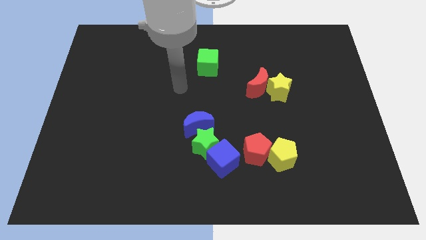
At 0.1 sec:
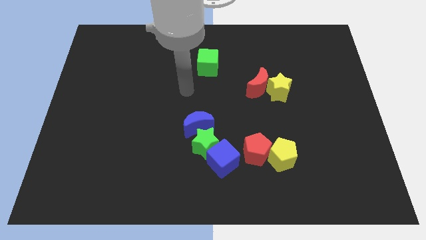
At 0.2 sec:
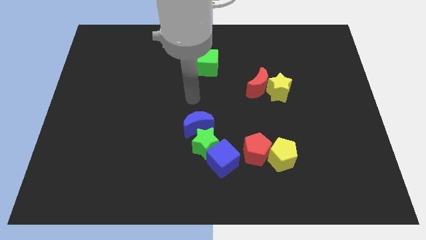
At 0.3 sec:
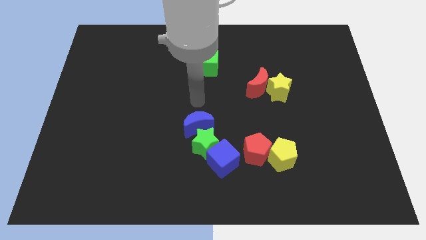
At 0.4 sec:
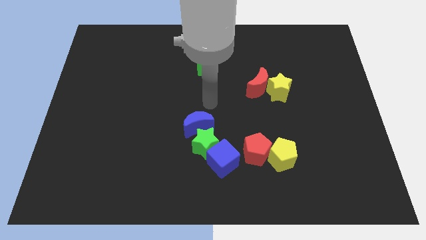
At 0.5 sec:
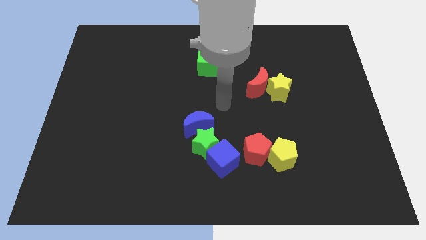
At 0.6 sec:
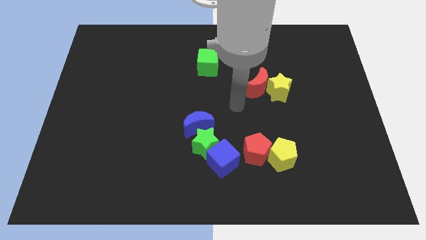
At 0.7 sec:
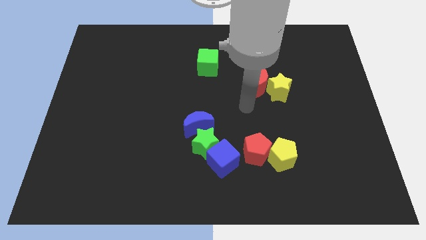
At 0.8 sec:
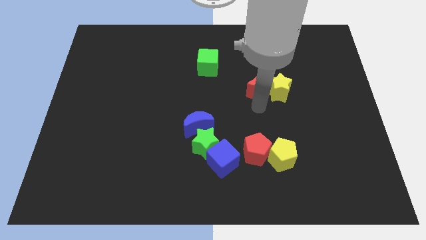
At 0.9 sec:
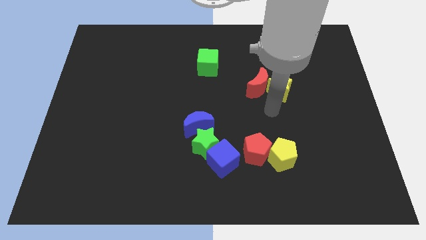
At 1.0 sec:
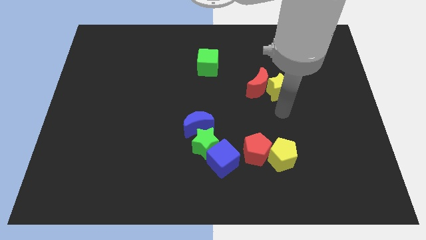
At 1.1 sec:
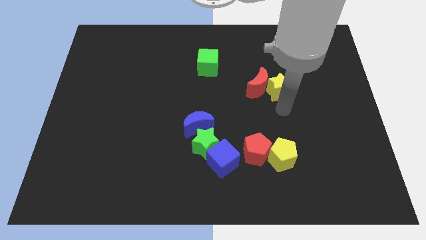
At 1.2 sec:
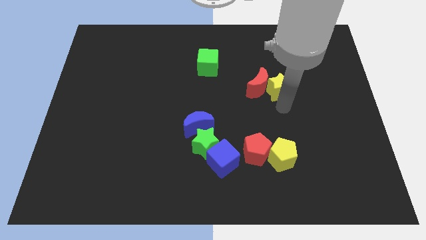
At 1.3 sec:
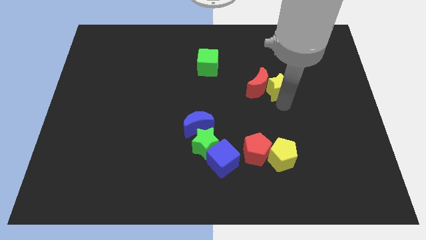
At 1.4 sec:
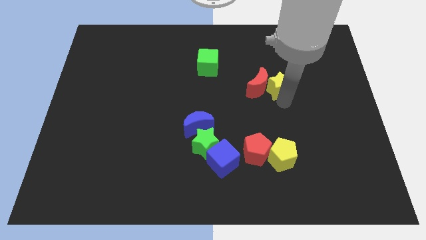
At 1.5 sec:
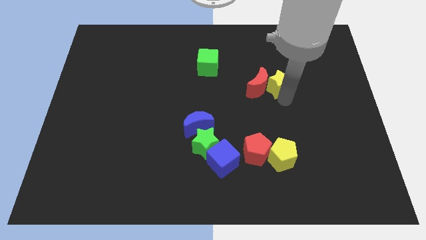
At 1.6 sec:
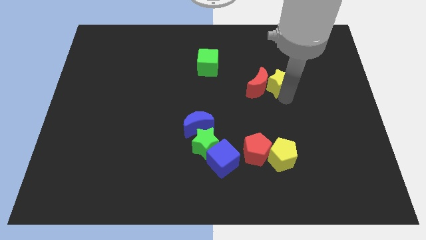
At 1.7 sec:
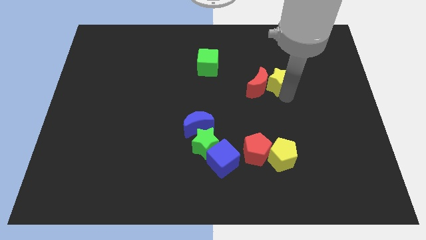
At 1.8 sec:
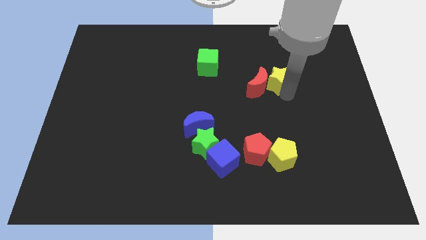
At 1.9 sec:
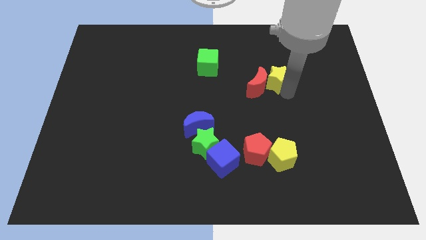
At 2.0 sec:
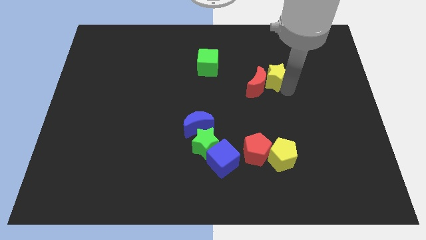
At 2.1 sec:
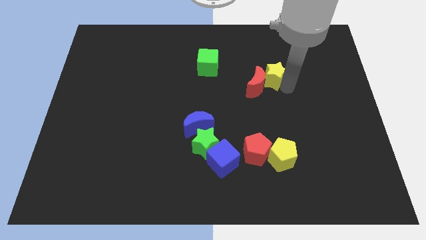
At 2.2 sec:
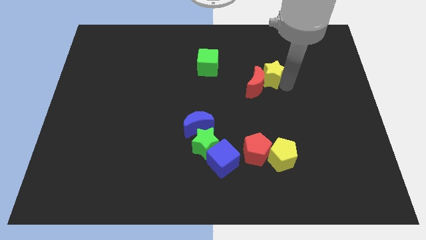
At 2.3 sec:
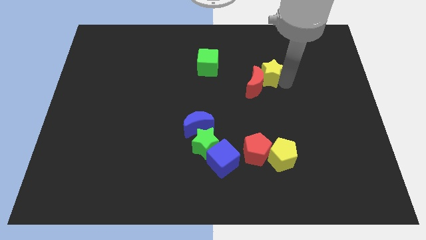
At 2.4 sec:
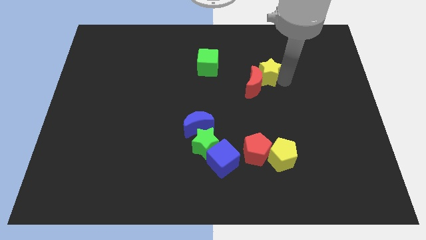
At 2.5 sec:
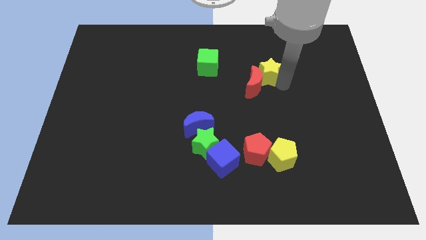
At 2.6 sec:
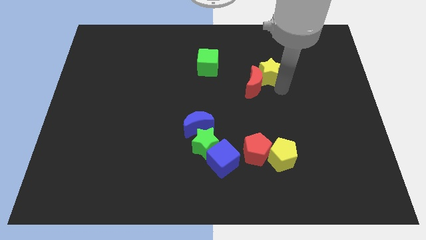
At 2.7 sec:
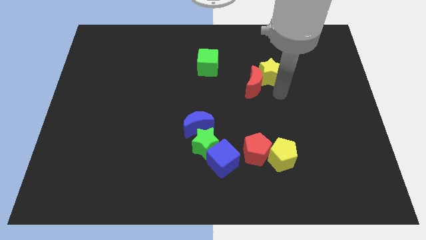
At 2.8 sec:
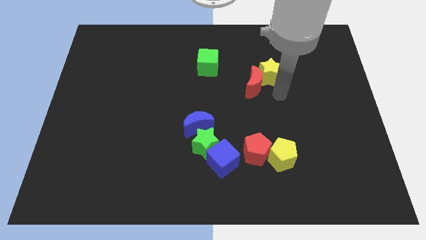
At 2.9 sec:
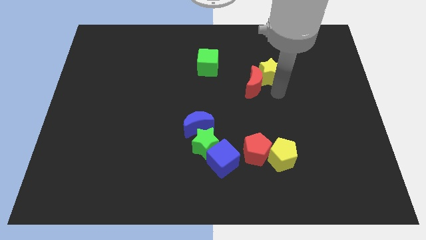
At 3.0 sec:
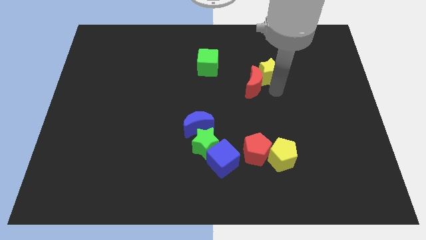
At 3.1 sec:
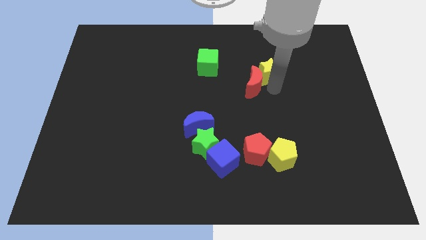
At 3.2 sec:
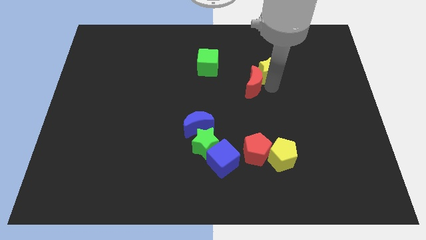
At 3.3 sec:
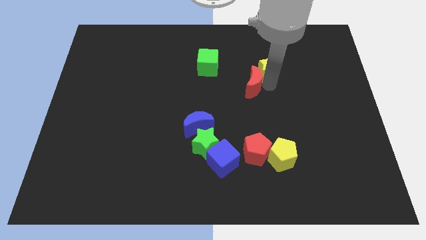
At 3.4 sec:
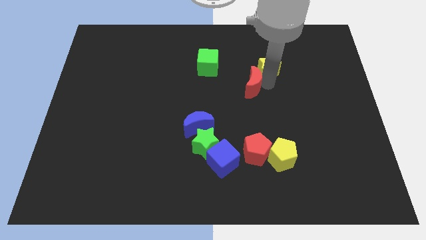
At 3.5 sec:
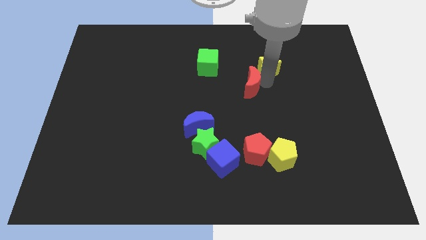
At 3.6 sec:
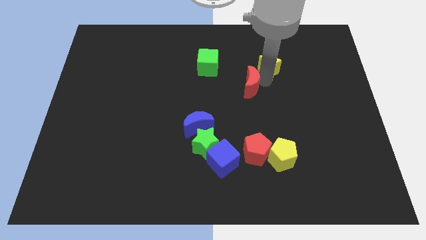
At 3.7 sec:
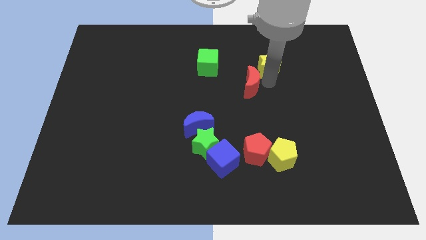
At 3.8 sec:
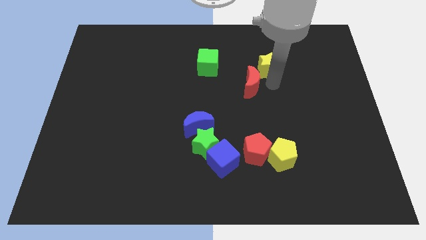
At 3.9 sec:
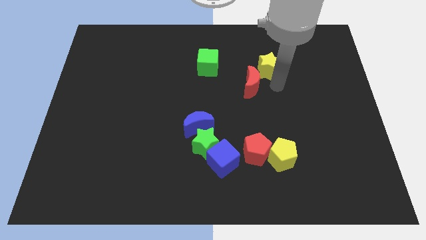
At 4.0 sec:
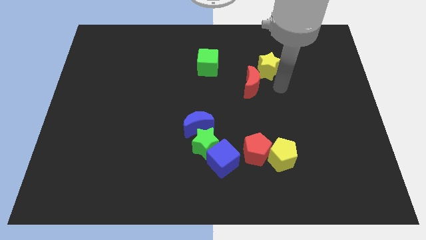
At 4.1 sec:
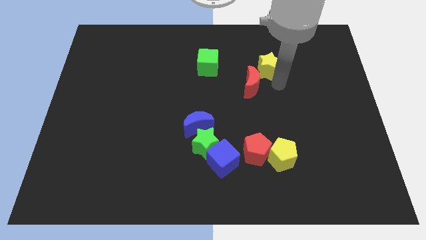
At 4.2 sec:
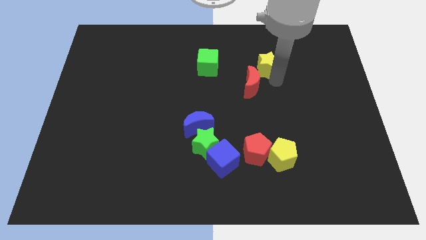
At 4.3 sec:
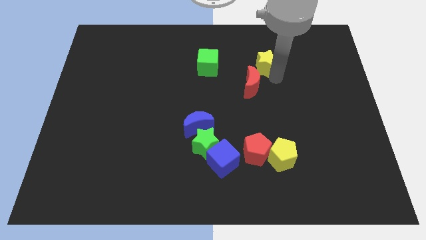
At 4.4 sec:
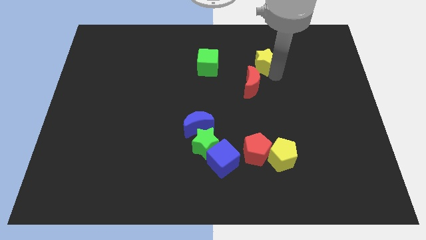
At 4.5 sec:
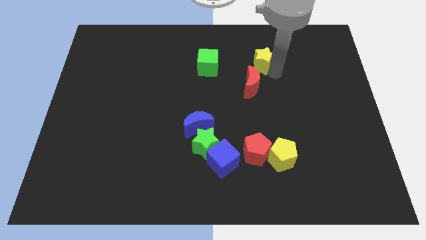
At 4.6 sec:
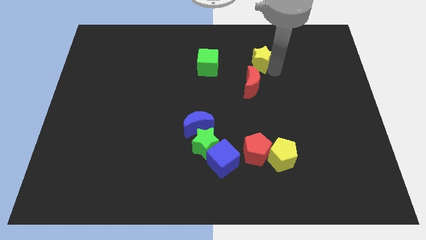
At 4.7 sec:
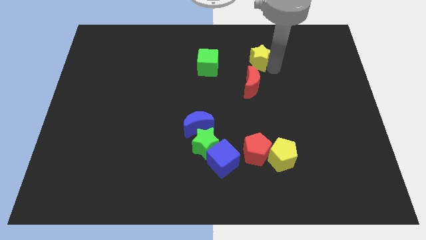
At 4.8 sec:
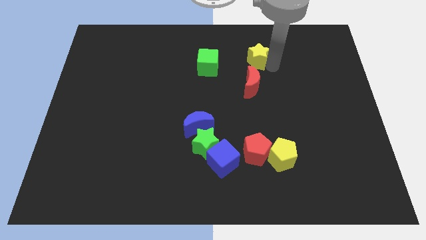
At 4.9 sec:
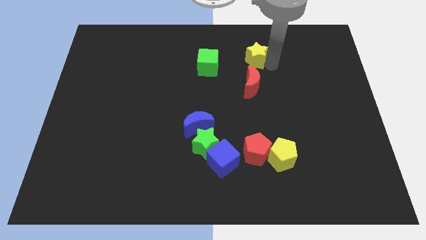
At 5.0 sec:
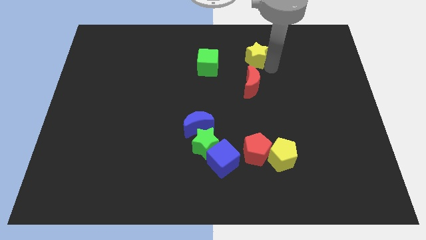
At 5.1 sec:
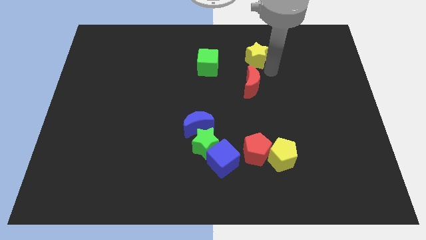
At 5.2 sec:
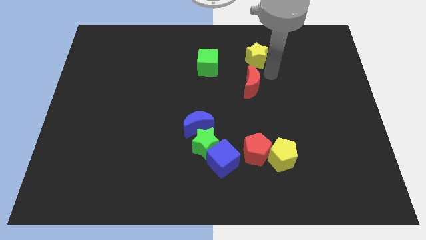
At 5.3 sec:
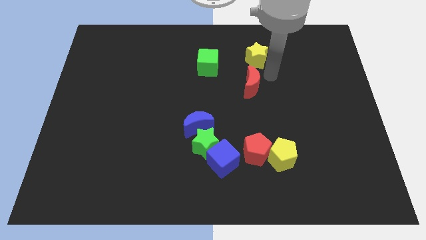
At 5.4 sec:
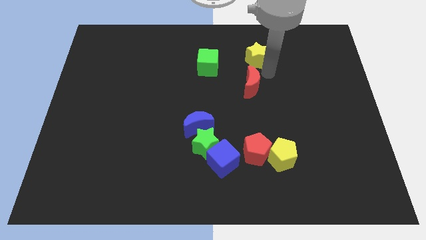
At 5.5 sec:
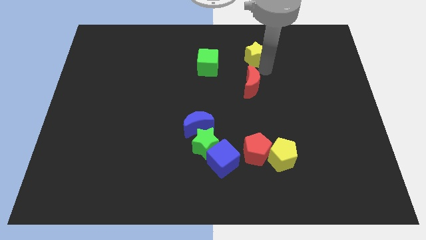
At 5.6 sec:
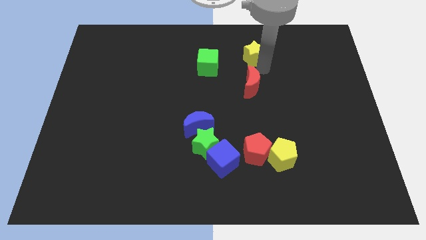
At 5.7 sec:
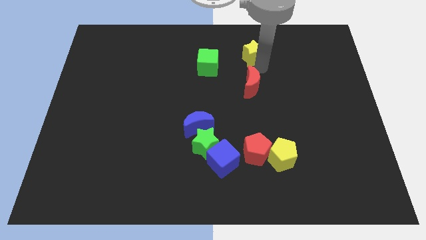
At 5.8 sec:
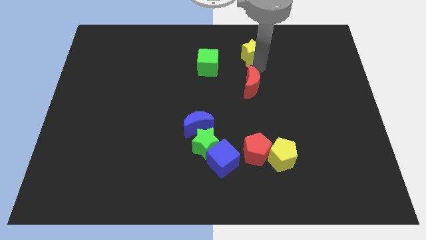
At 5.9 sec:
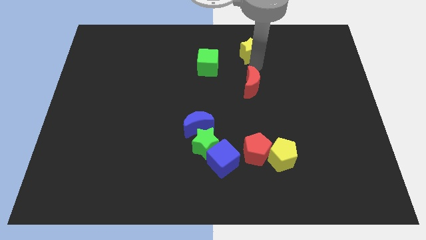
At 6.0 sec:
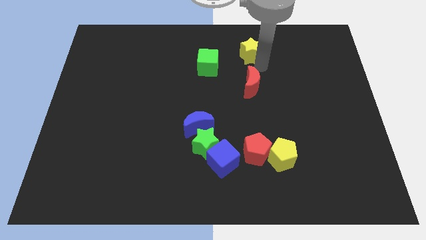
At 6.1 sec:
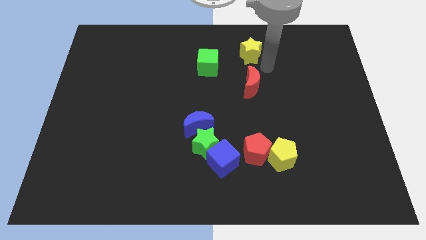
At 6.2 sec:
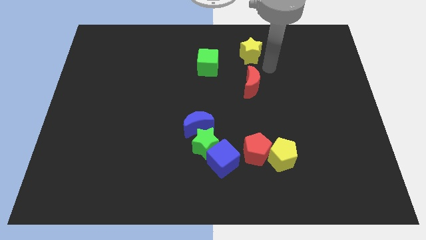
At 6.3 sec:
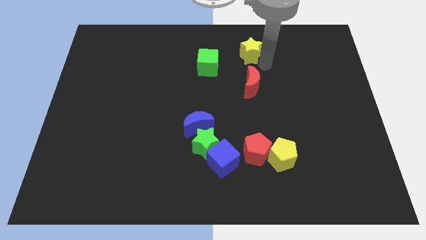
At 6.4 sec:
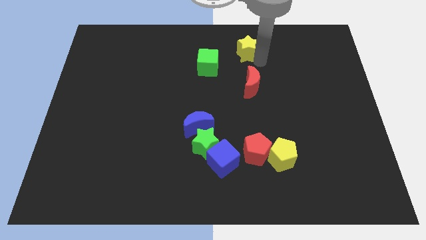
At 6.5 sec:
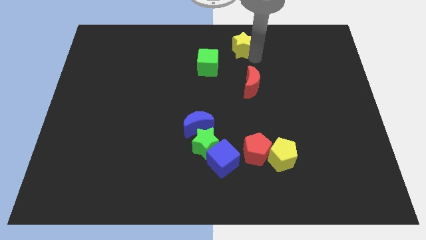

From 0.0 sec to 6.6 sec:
slide the yellow star to the top
